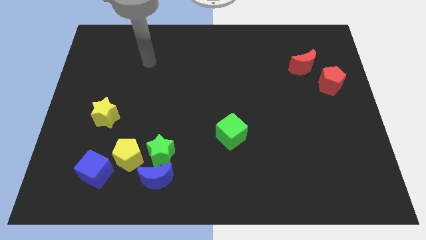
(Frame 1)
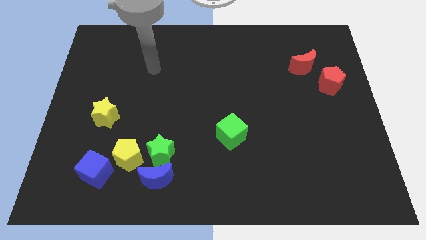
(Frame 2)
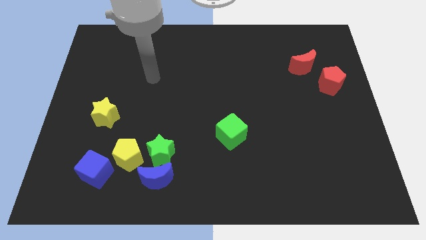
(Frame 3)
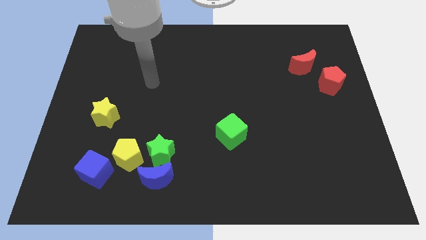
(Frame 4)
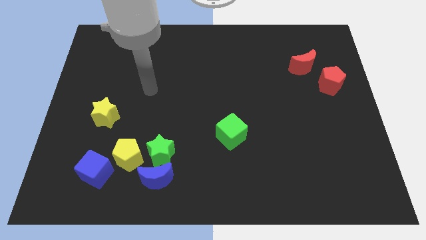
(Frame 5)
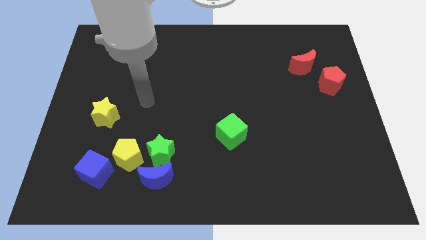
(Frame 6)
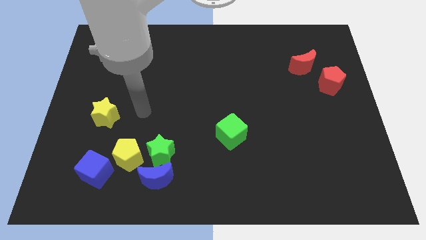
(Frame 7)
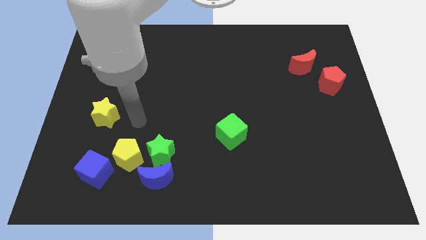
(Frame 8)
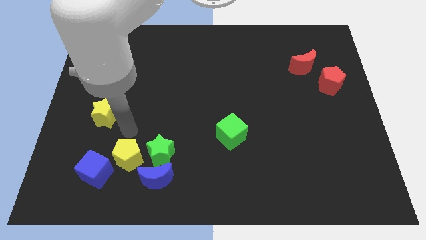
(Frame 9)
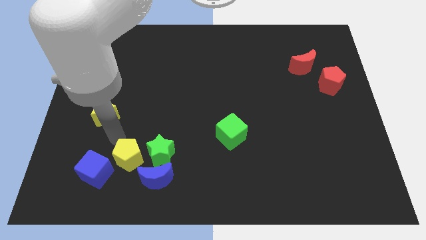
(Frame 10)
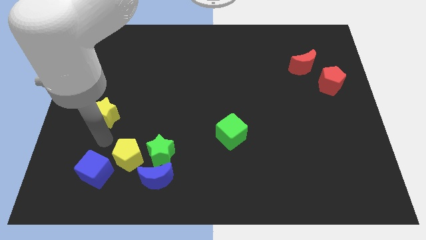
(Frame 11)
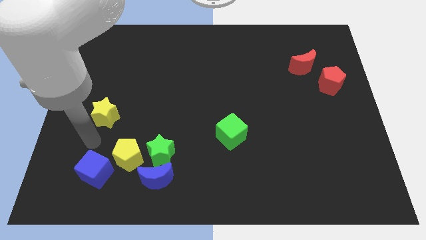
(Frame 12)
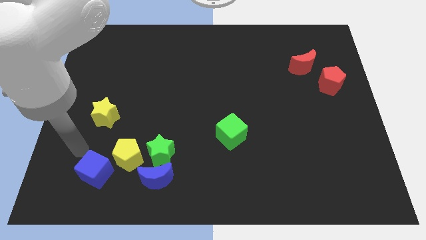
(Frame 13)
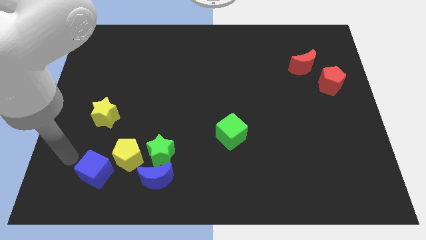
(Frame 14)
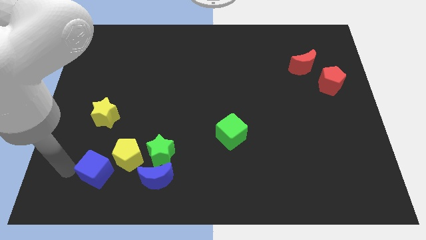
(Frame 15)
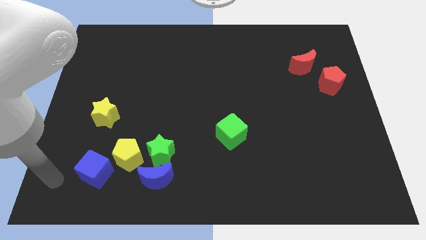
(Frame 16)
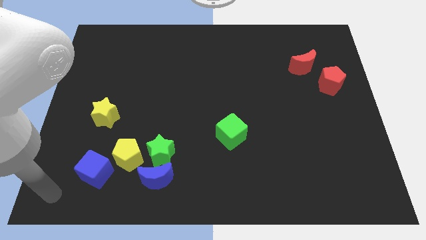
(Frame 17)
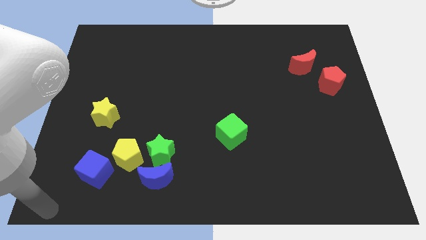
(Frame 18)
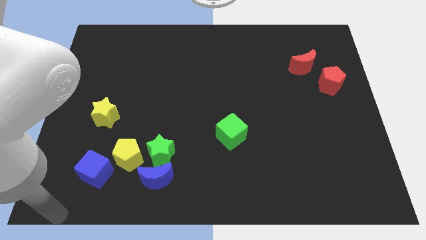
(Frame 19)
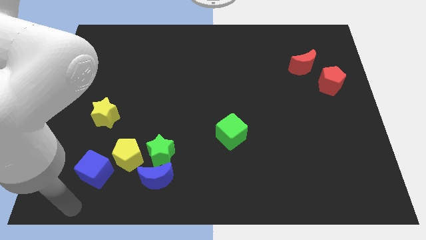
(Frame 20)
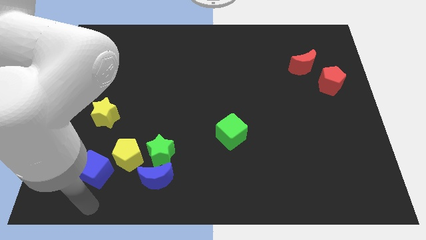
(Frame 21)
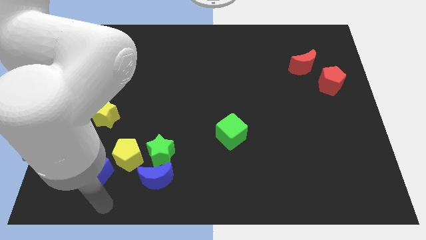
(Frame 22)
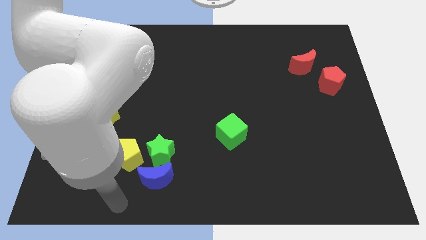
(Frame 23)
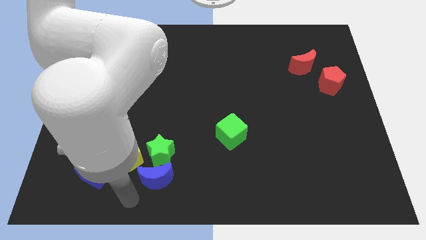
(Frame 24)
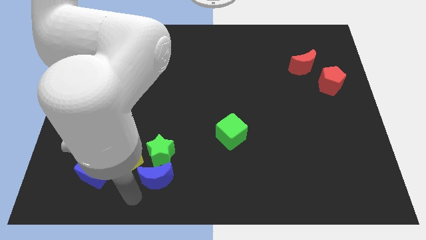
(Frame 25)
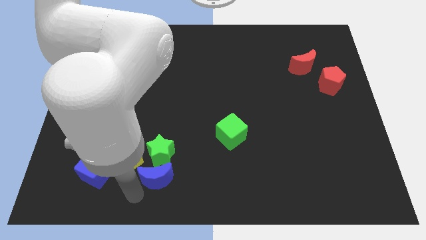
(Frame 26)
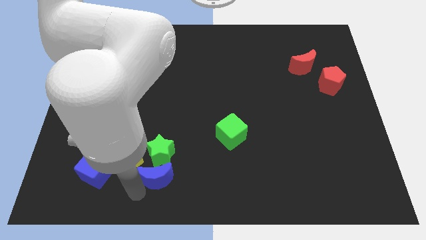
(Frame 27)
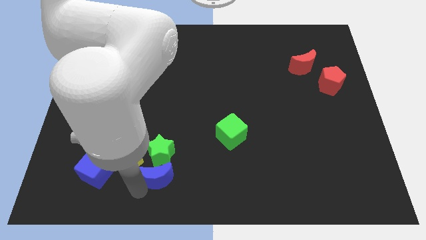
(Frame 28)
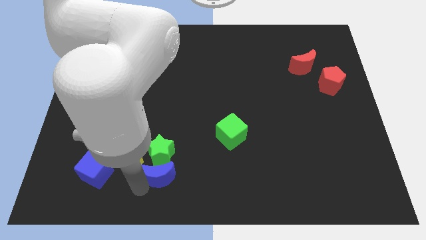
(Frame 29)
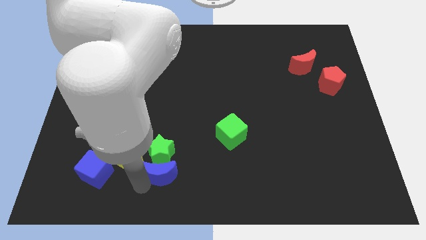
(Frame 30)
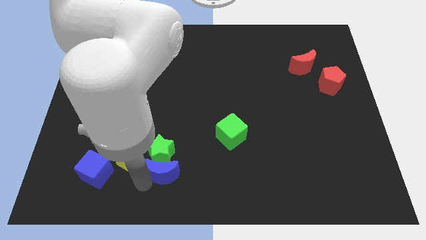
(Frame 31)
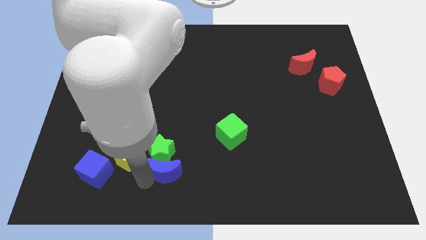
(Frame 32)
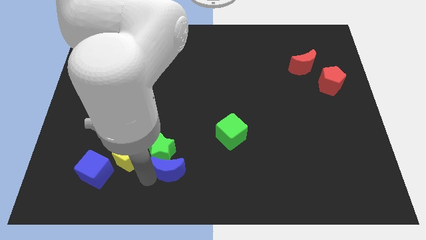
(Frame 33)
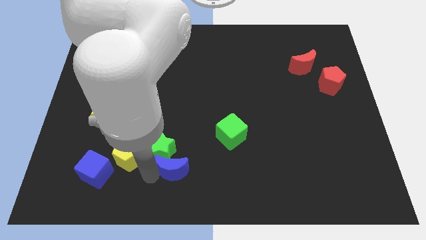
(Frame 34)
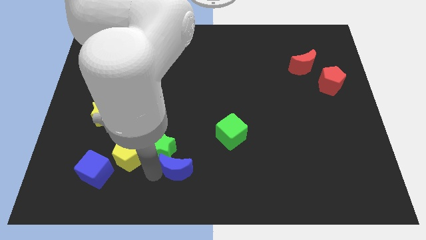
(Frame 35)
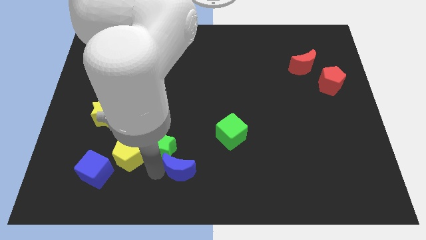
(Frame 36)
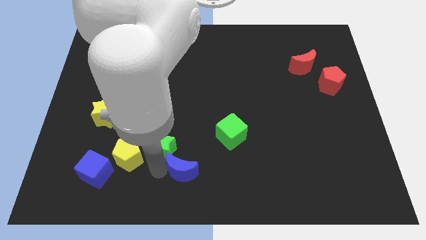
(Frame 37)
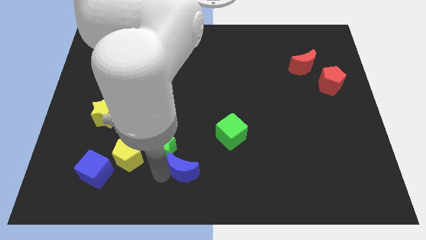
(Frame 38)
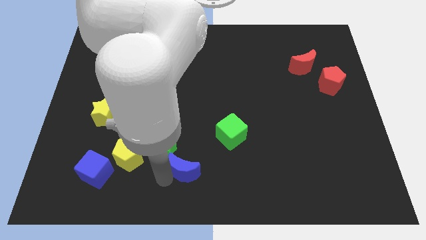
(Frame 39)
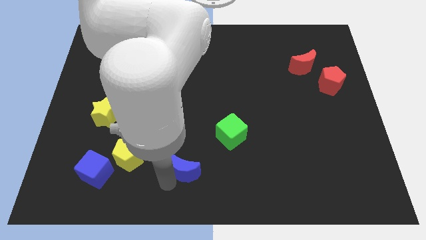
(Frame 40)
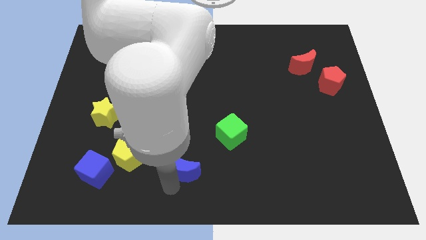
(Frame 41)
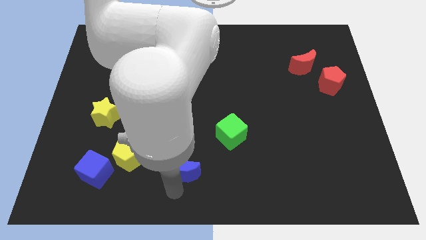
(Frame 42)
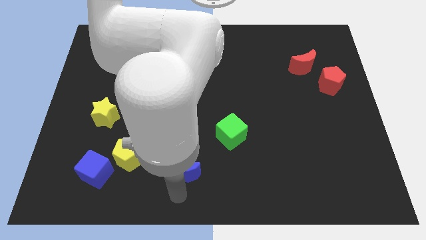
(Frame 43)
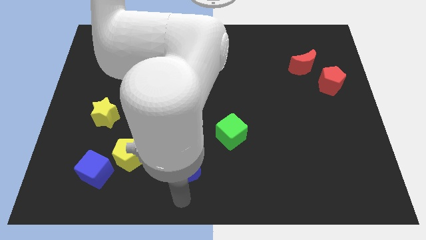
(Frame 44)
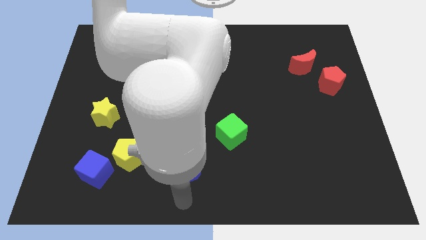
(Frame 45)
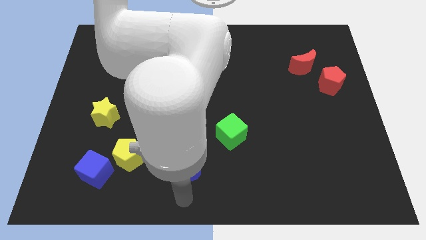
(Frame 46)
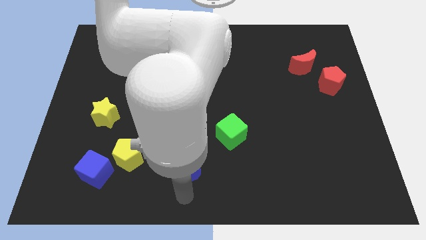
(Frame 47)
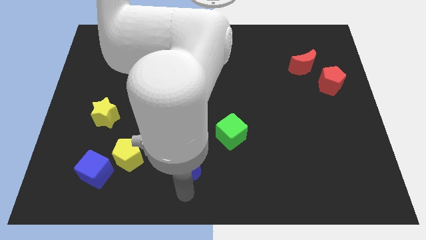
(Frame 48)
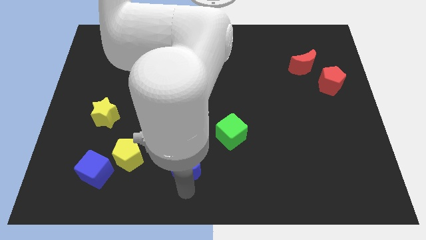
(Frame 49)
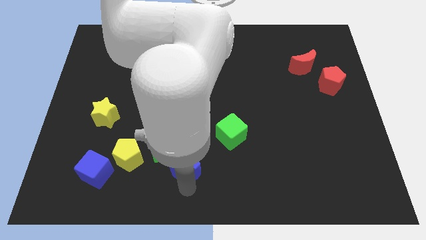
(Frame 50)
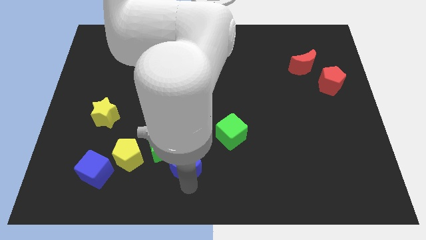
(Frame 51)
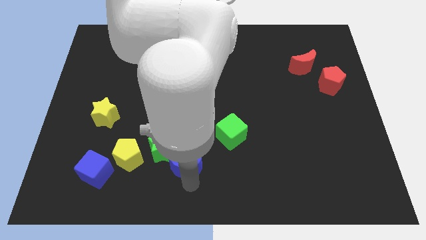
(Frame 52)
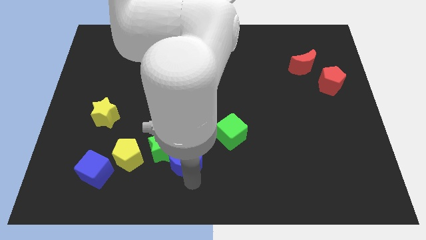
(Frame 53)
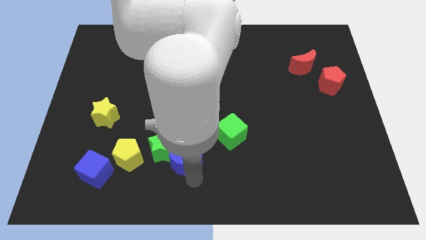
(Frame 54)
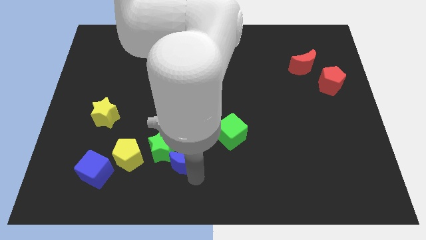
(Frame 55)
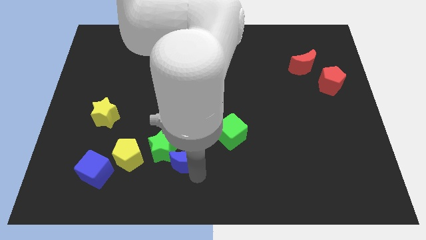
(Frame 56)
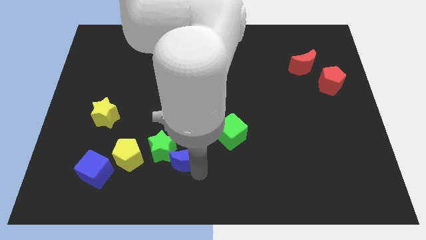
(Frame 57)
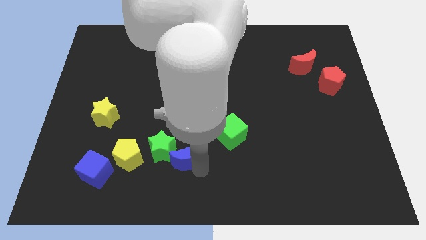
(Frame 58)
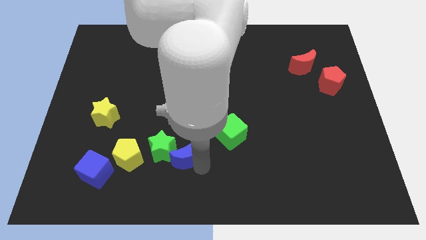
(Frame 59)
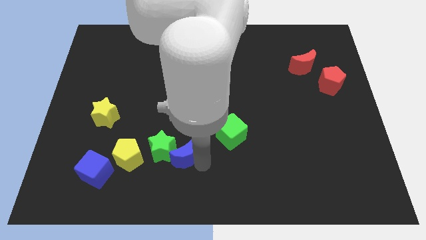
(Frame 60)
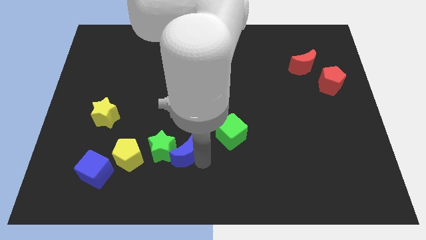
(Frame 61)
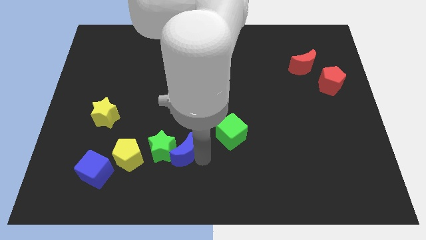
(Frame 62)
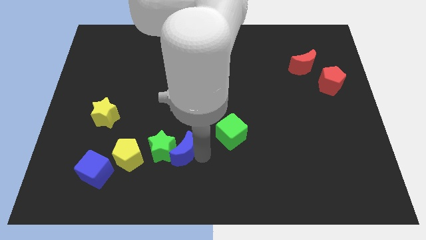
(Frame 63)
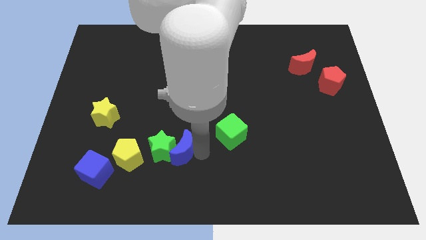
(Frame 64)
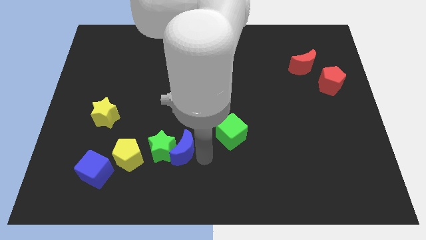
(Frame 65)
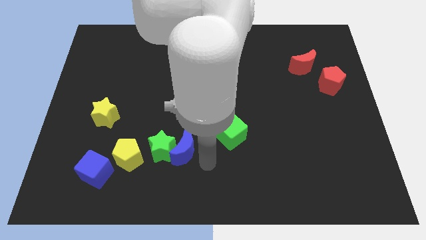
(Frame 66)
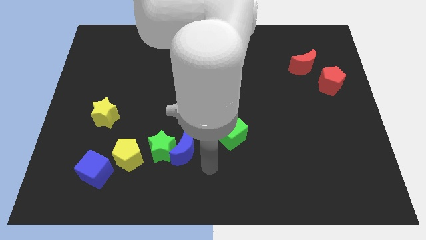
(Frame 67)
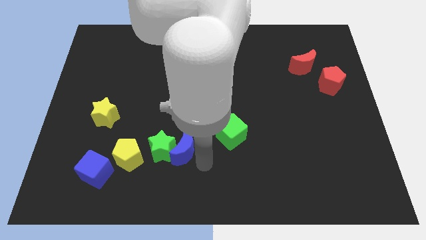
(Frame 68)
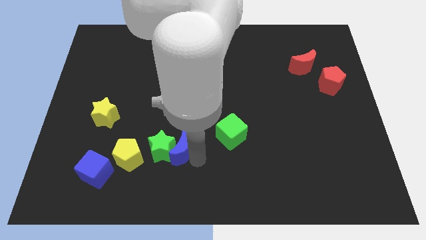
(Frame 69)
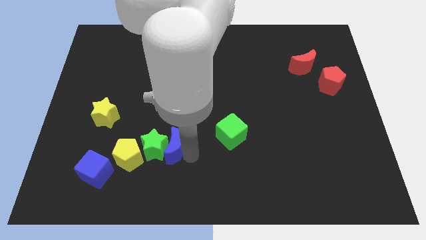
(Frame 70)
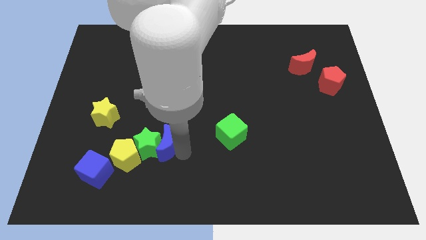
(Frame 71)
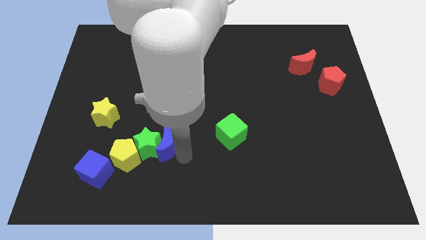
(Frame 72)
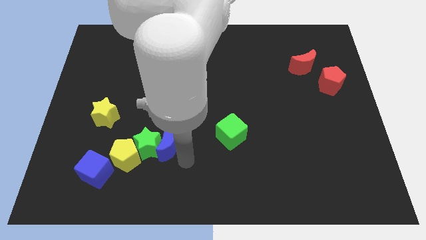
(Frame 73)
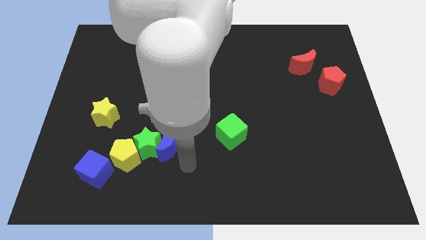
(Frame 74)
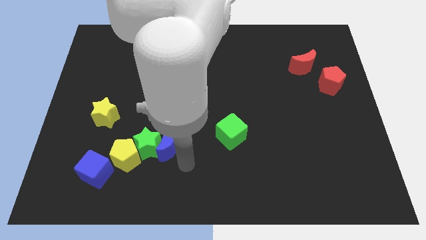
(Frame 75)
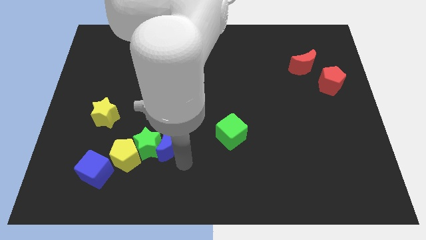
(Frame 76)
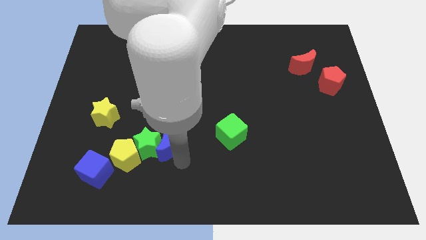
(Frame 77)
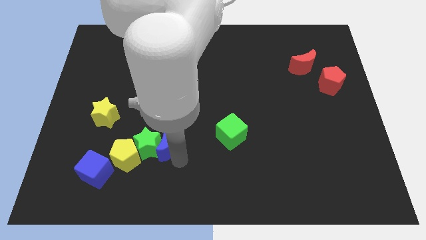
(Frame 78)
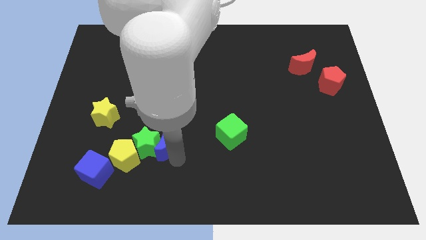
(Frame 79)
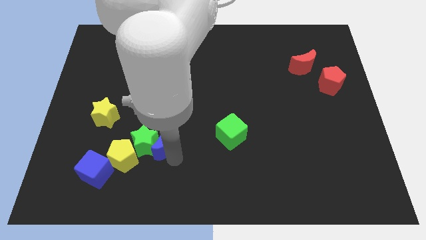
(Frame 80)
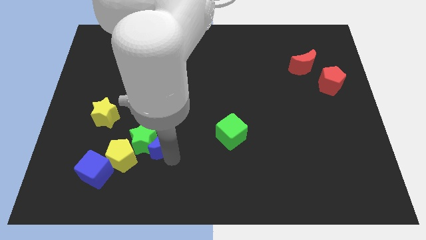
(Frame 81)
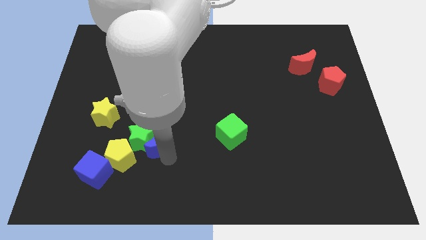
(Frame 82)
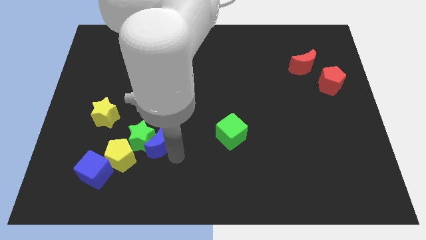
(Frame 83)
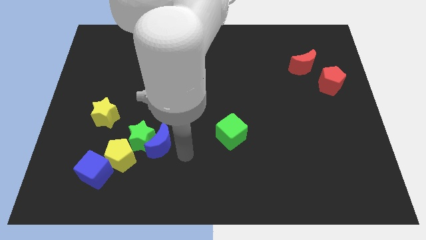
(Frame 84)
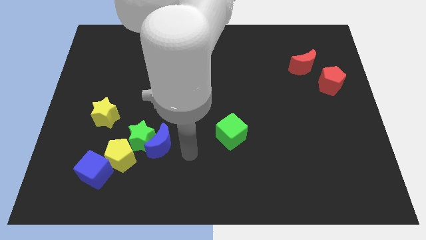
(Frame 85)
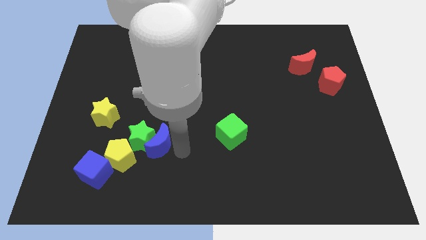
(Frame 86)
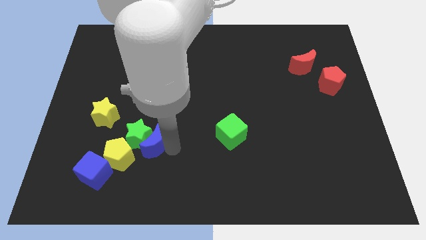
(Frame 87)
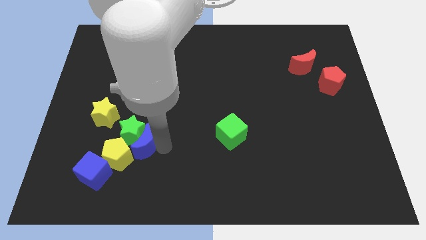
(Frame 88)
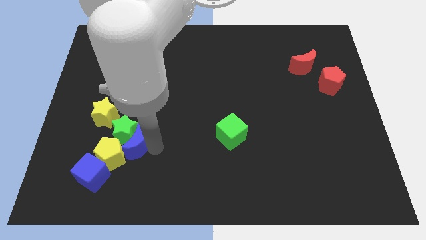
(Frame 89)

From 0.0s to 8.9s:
move the blue moon to the bottom right of the yellow star
